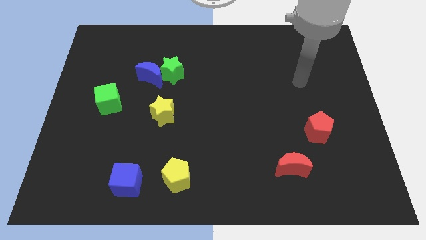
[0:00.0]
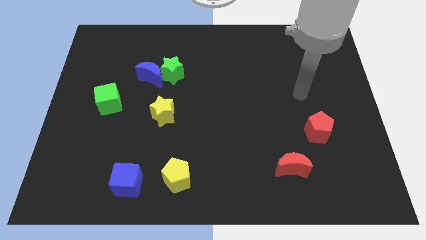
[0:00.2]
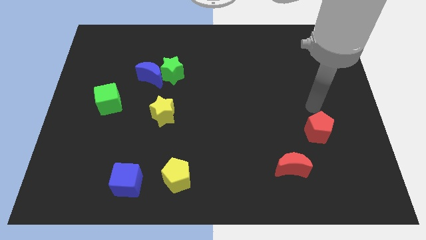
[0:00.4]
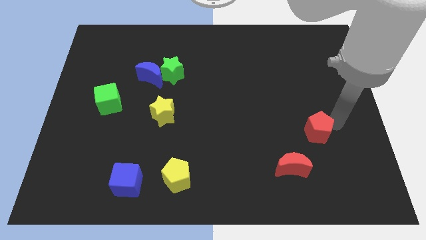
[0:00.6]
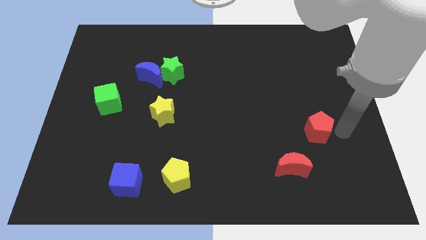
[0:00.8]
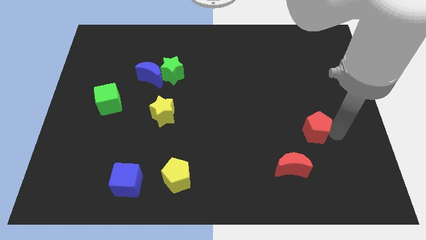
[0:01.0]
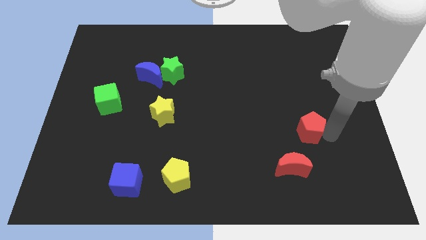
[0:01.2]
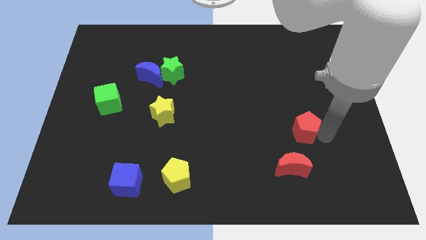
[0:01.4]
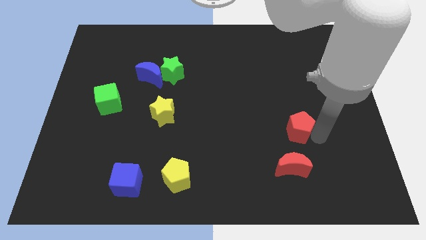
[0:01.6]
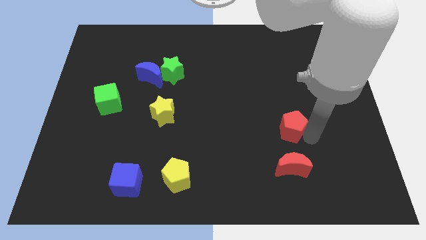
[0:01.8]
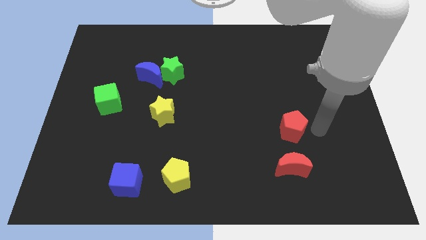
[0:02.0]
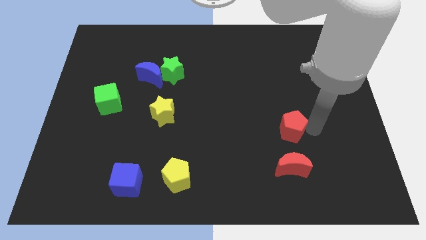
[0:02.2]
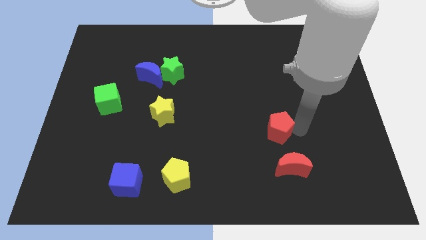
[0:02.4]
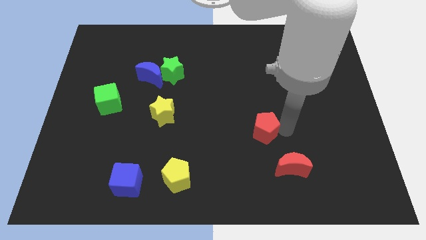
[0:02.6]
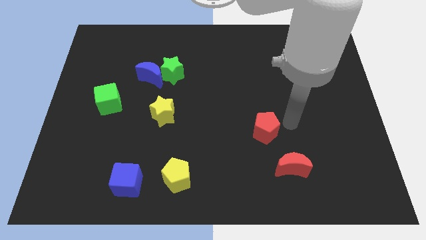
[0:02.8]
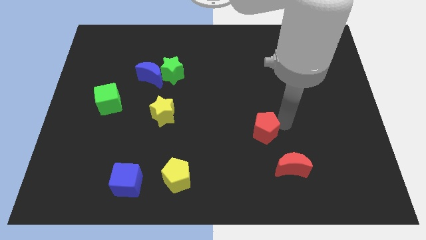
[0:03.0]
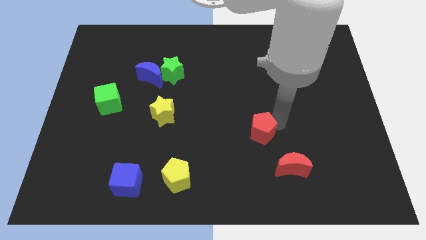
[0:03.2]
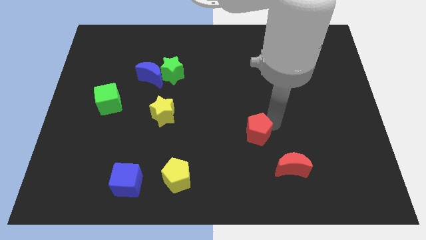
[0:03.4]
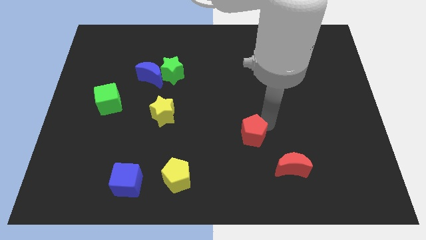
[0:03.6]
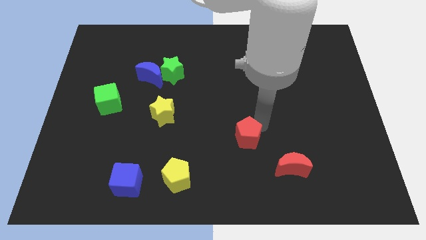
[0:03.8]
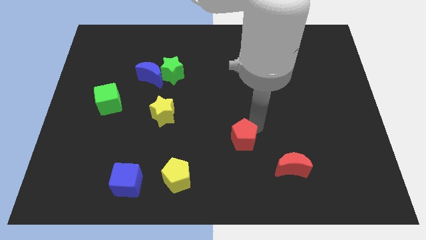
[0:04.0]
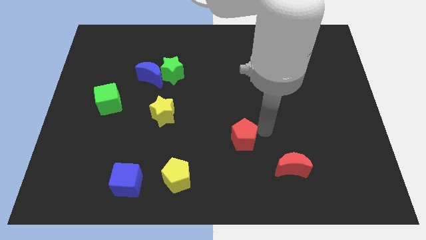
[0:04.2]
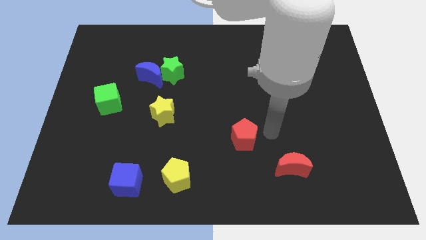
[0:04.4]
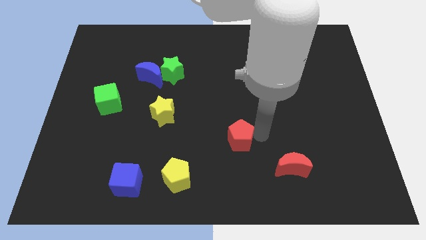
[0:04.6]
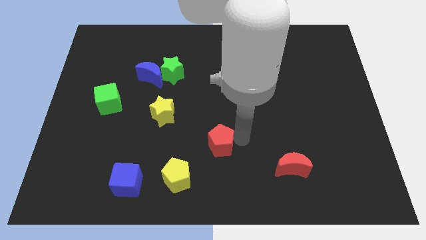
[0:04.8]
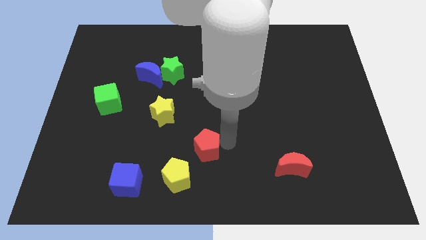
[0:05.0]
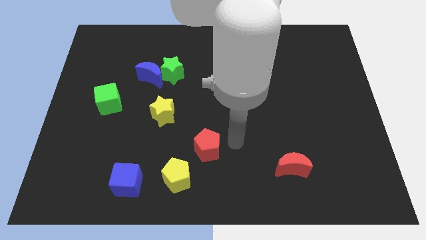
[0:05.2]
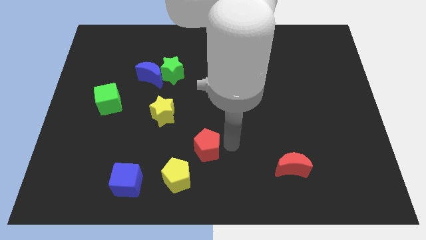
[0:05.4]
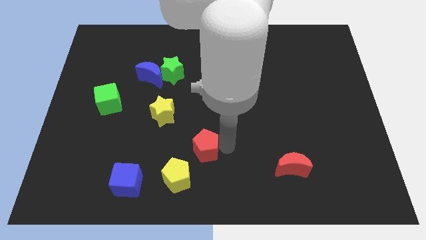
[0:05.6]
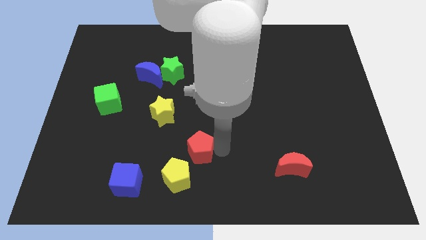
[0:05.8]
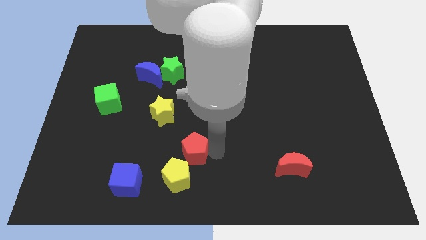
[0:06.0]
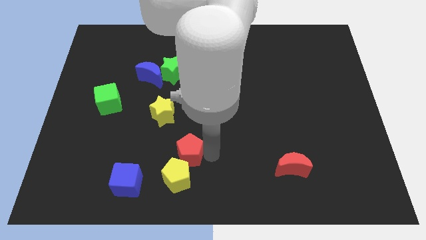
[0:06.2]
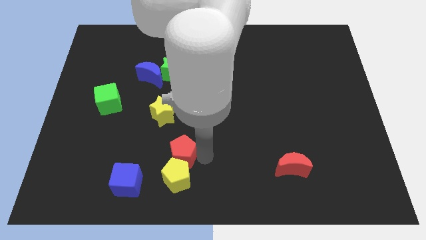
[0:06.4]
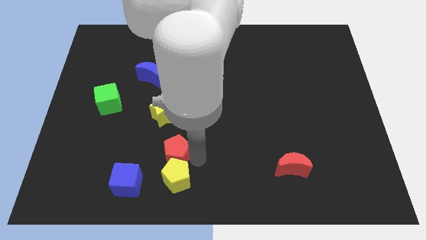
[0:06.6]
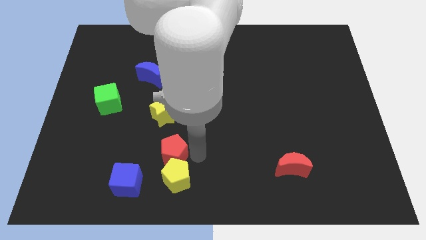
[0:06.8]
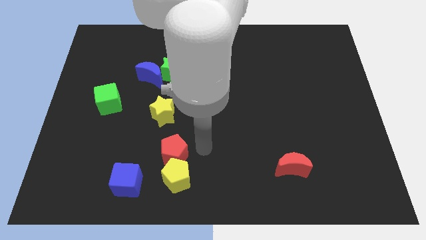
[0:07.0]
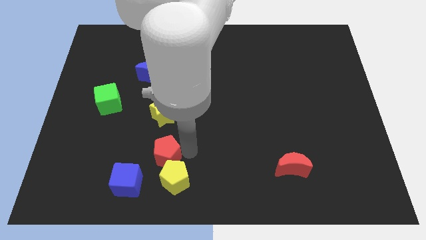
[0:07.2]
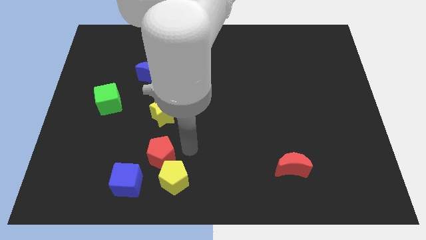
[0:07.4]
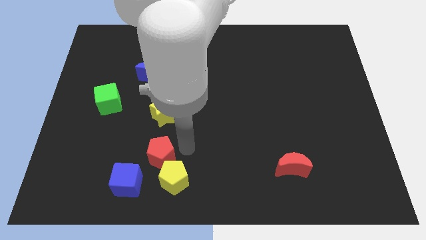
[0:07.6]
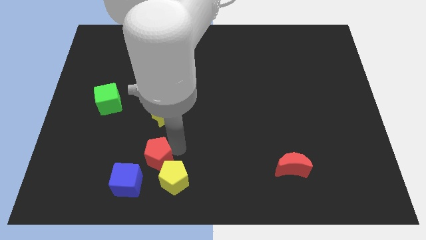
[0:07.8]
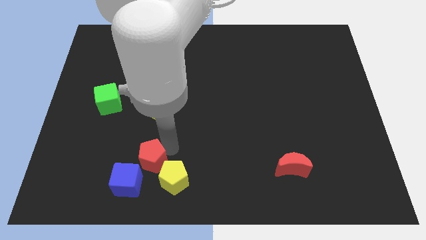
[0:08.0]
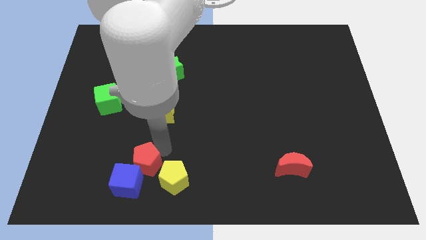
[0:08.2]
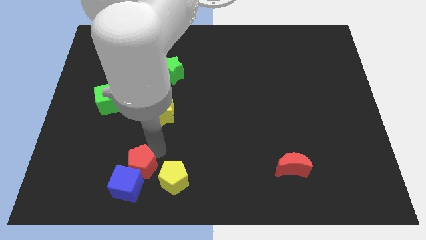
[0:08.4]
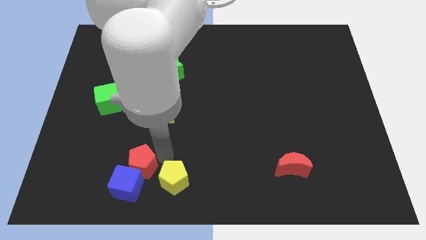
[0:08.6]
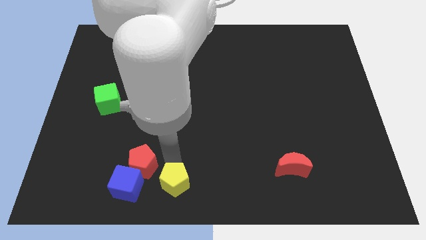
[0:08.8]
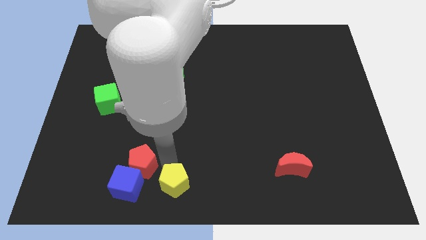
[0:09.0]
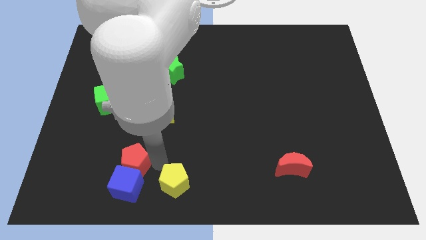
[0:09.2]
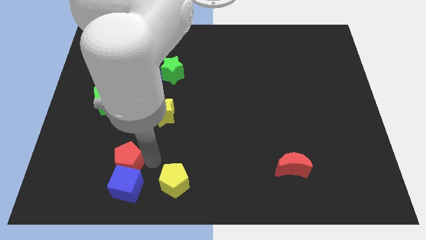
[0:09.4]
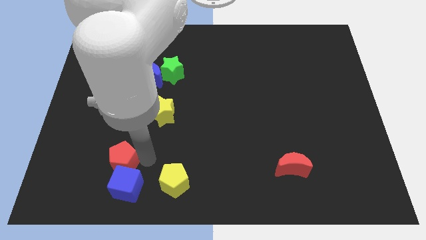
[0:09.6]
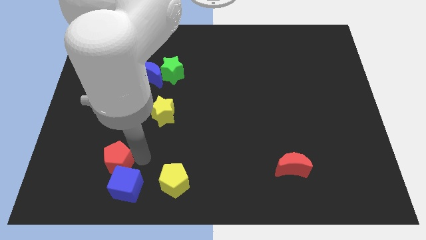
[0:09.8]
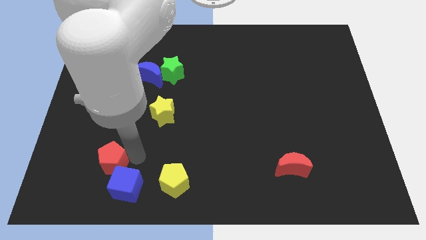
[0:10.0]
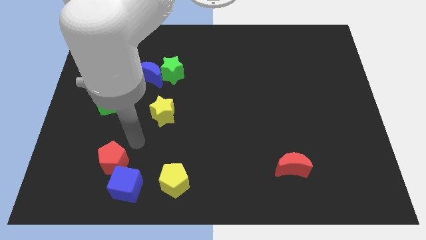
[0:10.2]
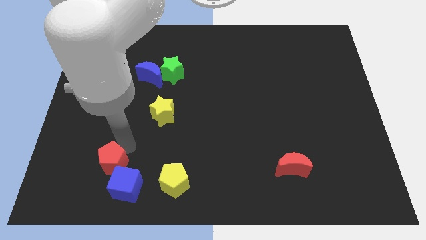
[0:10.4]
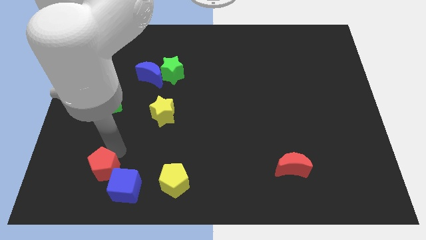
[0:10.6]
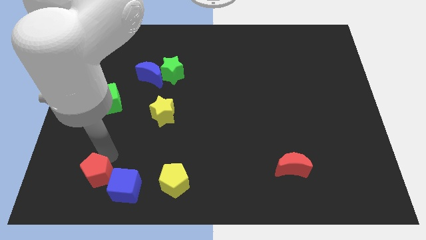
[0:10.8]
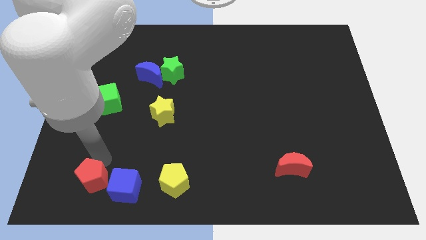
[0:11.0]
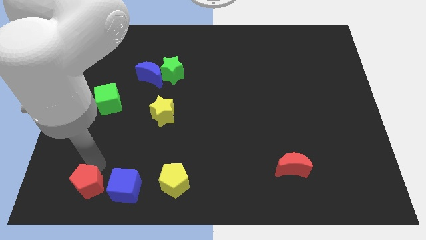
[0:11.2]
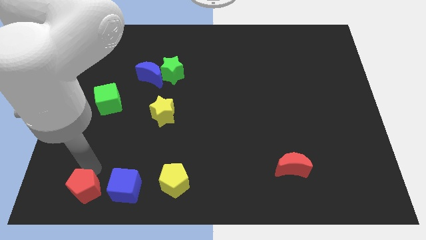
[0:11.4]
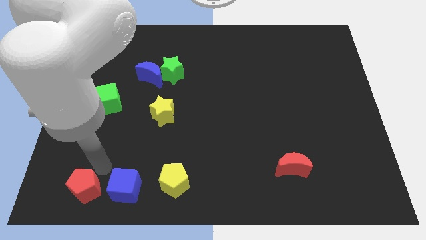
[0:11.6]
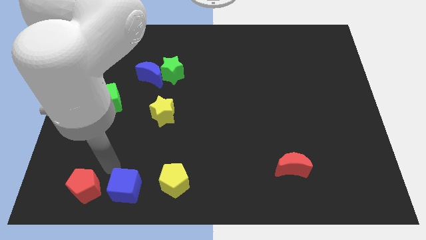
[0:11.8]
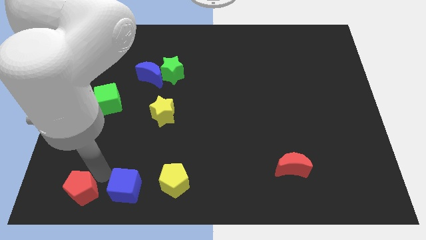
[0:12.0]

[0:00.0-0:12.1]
put the red pentagon to the bottom left of the board
